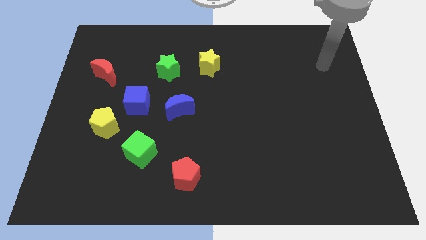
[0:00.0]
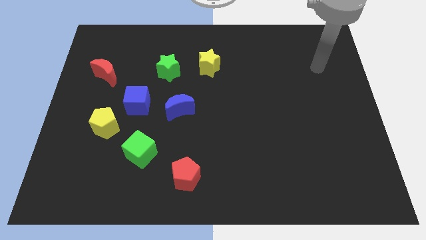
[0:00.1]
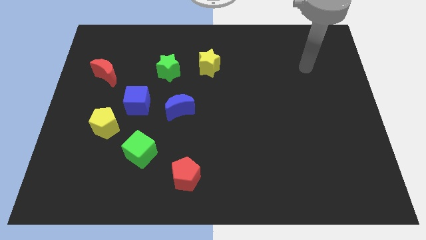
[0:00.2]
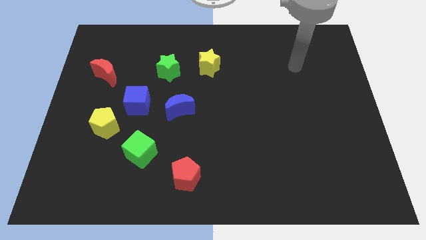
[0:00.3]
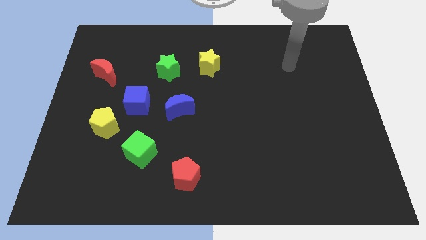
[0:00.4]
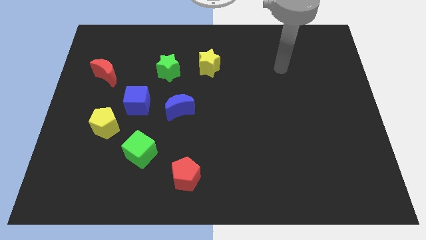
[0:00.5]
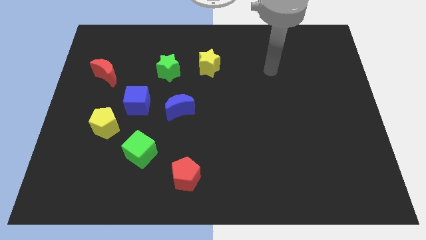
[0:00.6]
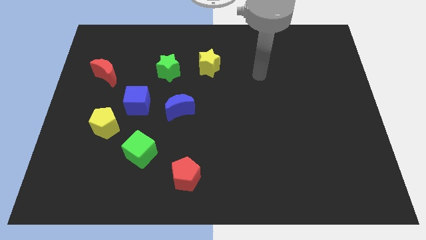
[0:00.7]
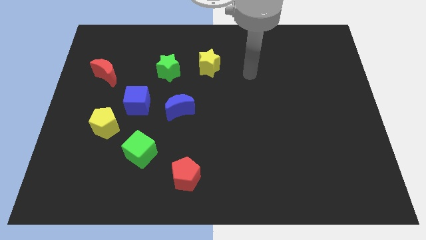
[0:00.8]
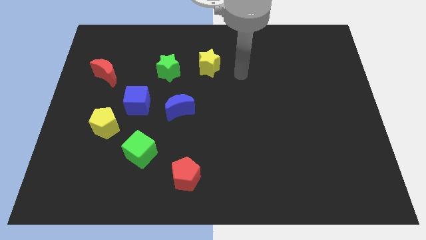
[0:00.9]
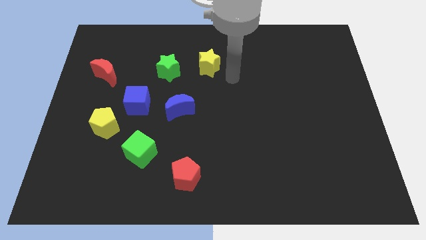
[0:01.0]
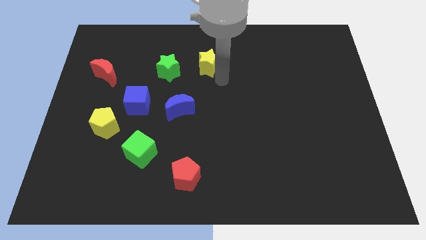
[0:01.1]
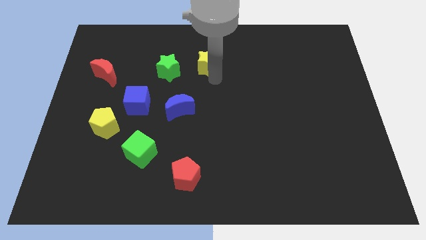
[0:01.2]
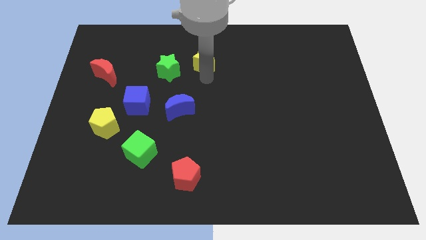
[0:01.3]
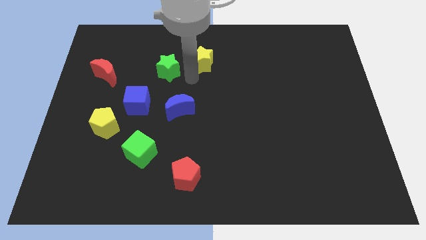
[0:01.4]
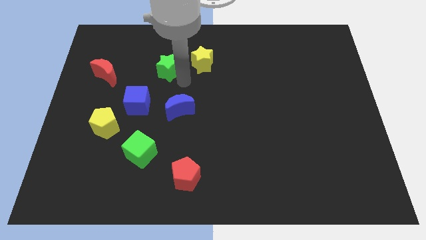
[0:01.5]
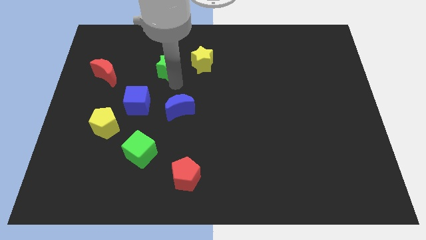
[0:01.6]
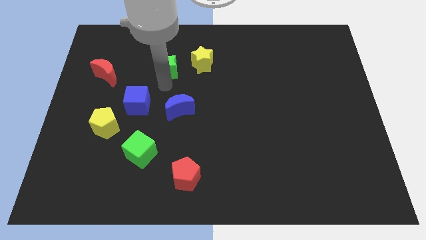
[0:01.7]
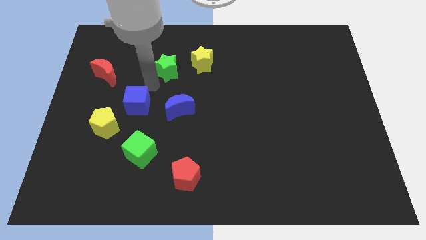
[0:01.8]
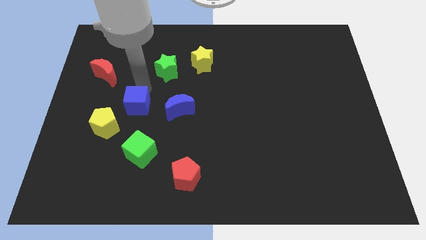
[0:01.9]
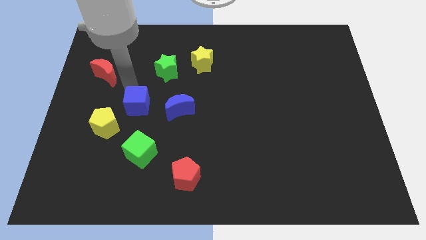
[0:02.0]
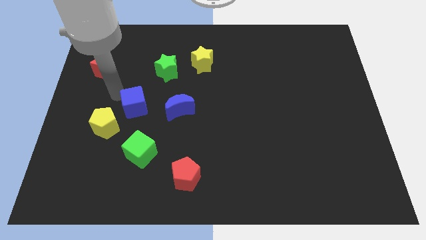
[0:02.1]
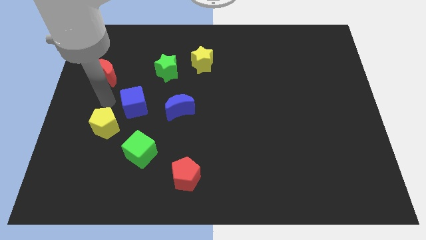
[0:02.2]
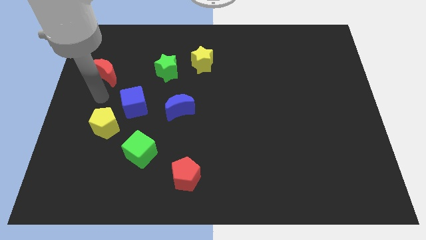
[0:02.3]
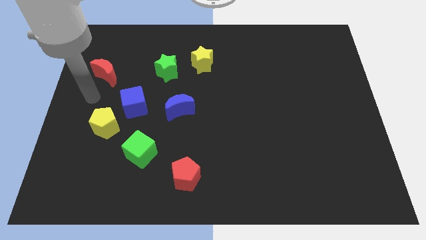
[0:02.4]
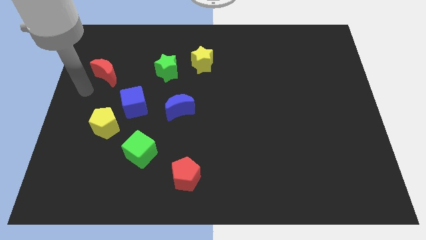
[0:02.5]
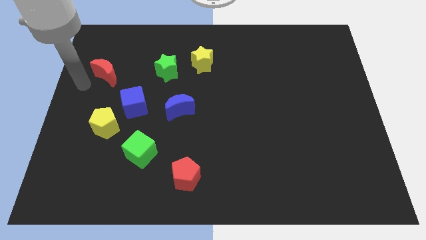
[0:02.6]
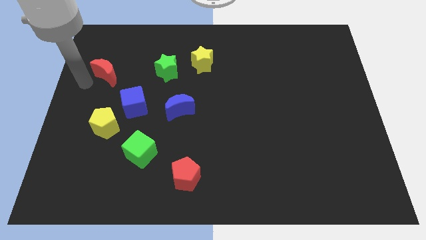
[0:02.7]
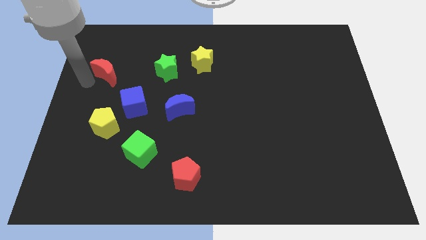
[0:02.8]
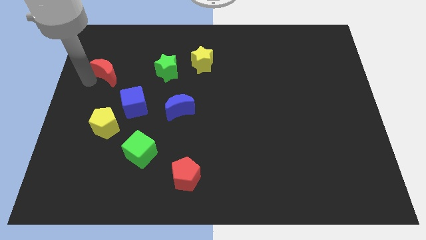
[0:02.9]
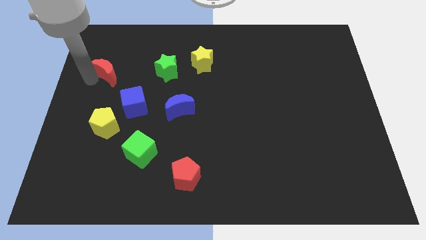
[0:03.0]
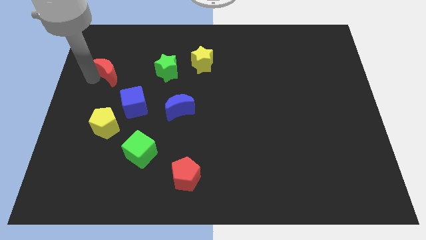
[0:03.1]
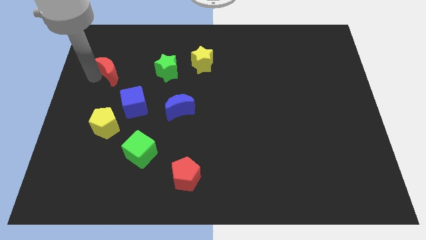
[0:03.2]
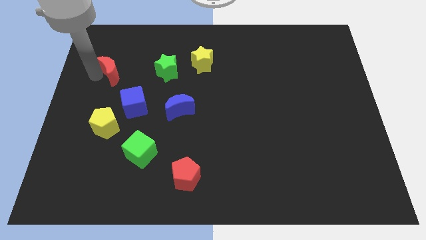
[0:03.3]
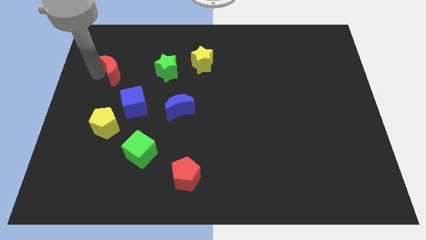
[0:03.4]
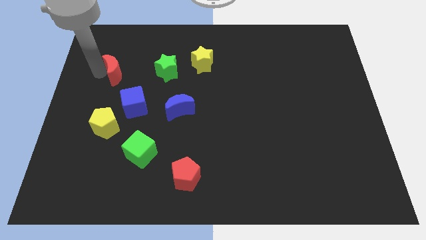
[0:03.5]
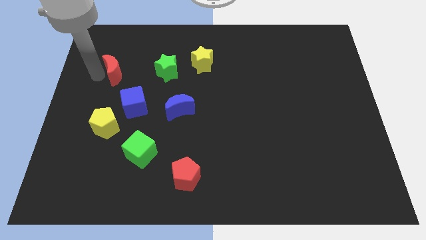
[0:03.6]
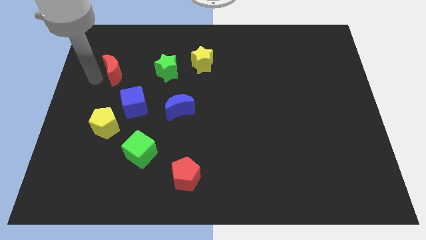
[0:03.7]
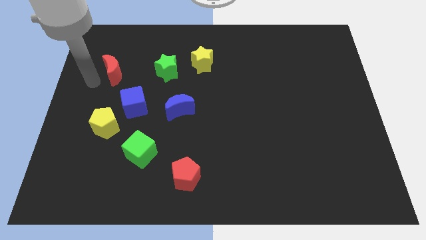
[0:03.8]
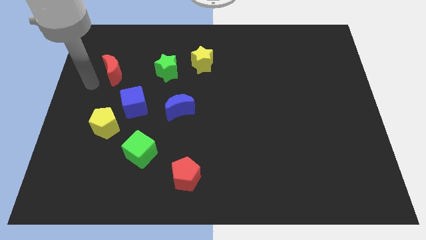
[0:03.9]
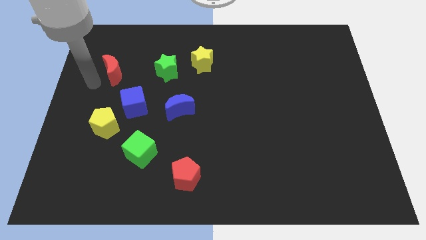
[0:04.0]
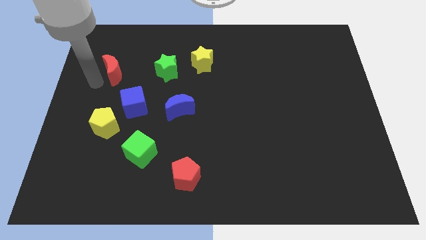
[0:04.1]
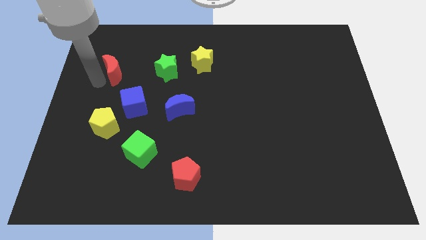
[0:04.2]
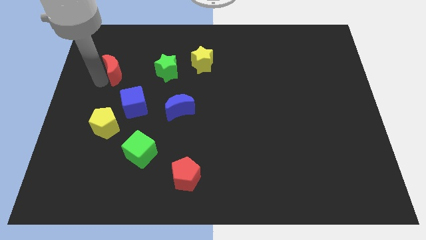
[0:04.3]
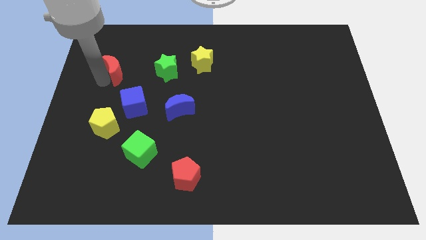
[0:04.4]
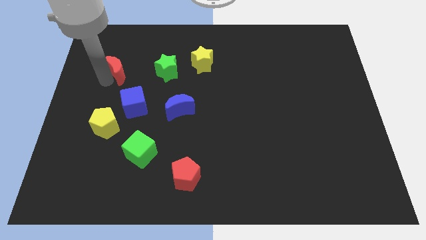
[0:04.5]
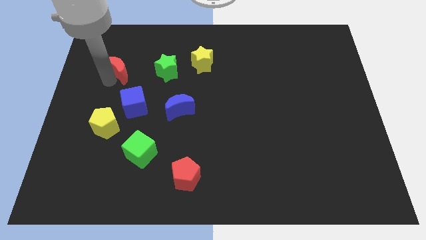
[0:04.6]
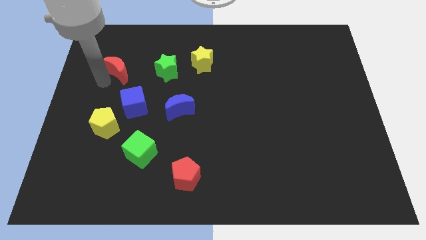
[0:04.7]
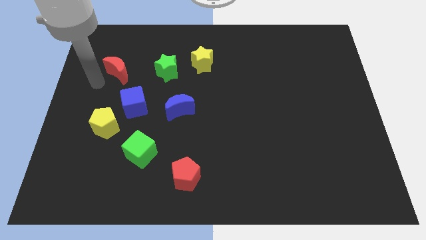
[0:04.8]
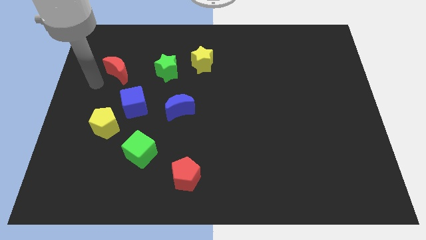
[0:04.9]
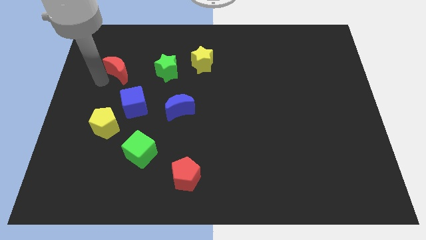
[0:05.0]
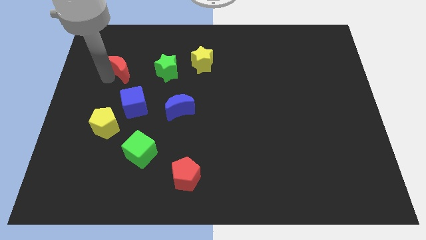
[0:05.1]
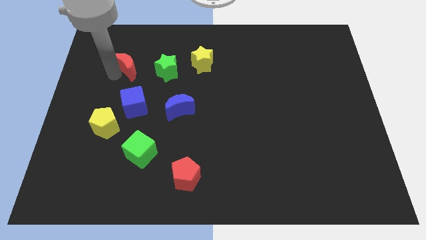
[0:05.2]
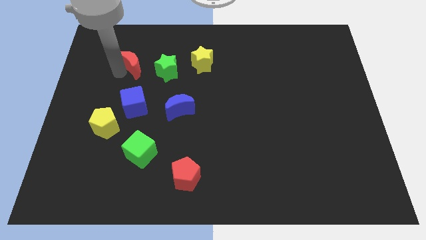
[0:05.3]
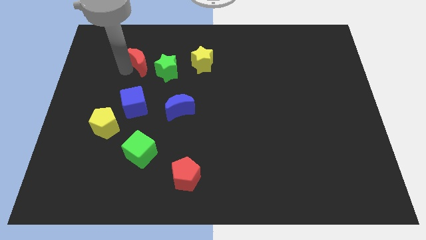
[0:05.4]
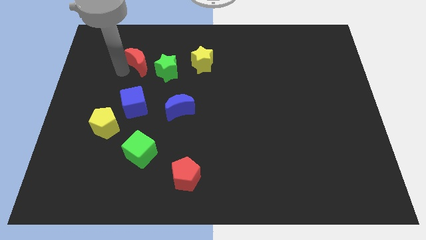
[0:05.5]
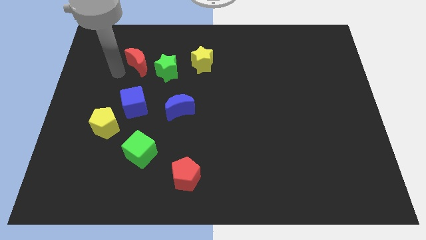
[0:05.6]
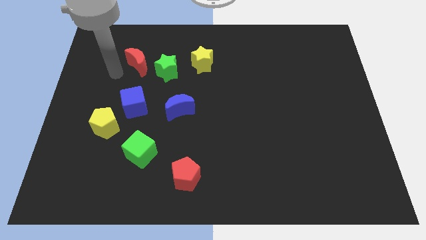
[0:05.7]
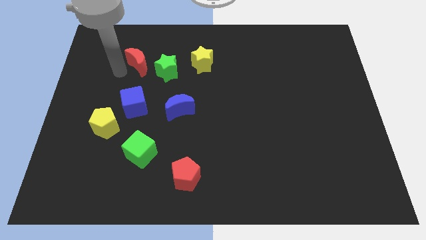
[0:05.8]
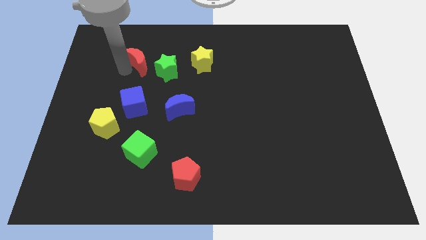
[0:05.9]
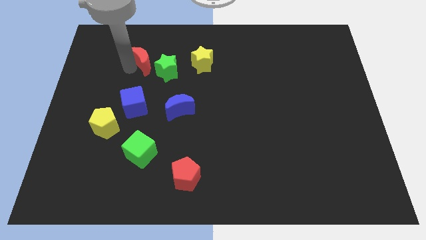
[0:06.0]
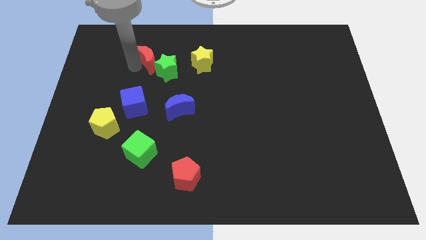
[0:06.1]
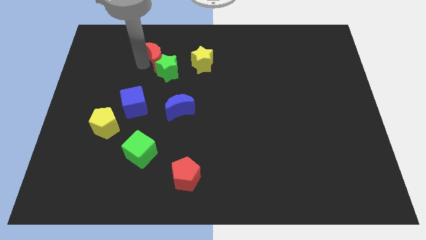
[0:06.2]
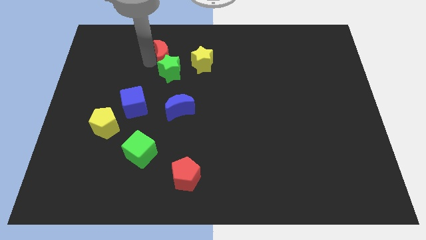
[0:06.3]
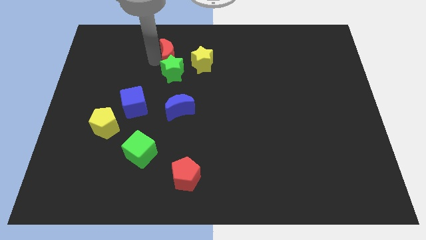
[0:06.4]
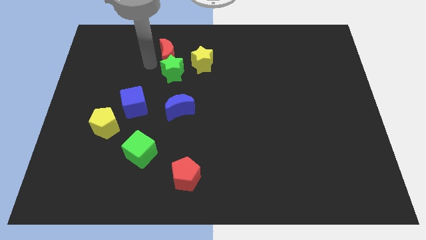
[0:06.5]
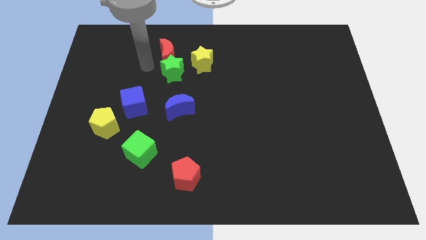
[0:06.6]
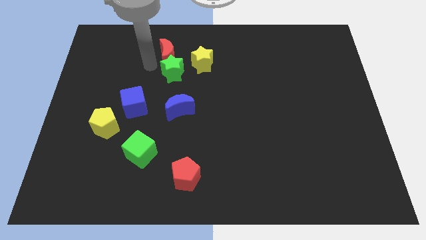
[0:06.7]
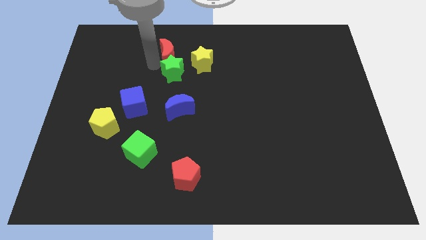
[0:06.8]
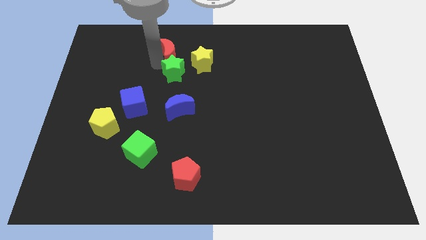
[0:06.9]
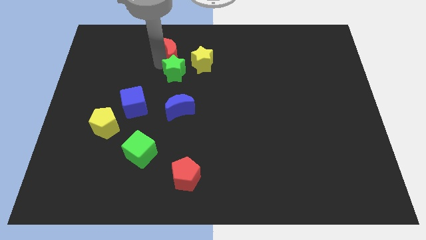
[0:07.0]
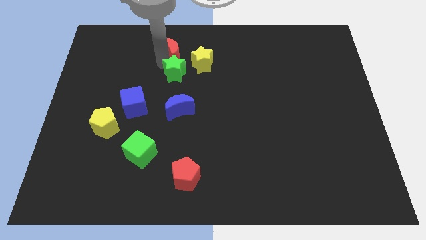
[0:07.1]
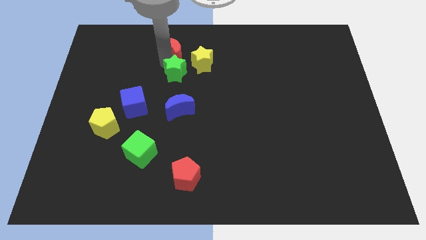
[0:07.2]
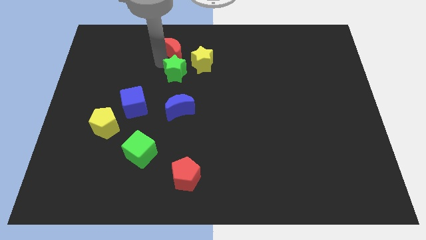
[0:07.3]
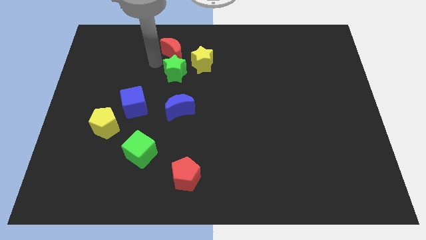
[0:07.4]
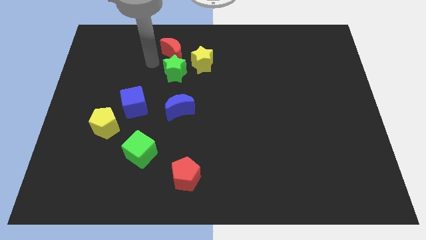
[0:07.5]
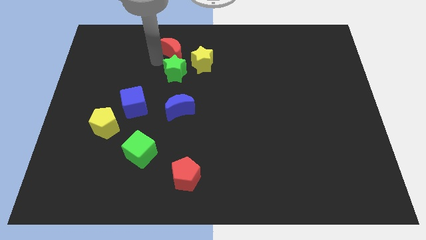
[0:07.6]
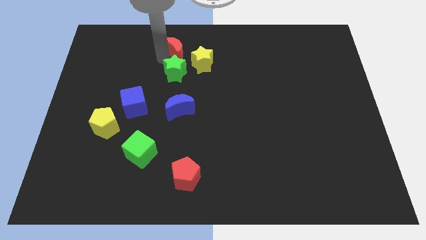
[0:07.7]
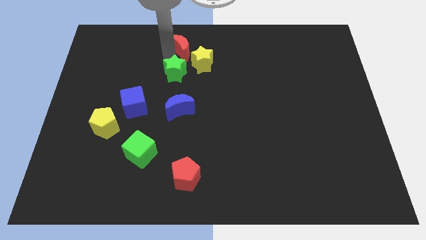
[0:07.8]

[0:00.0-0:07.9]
put the red moon to the towards your base
